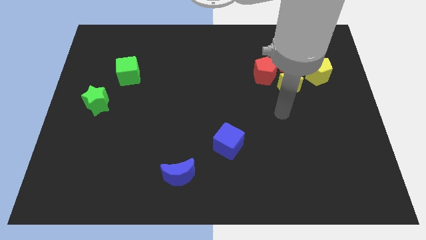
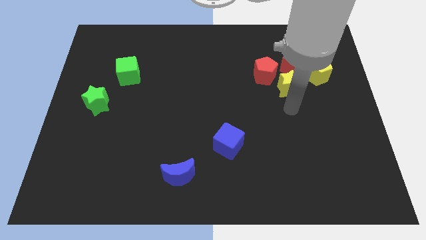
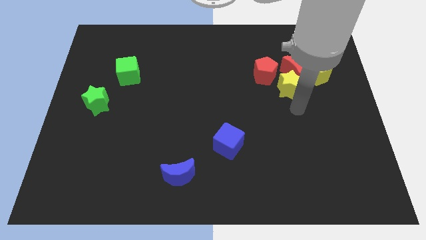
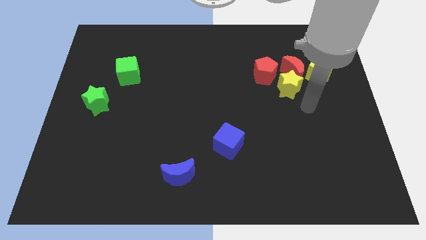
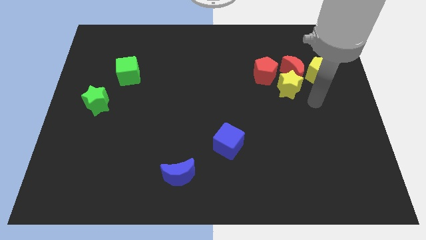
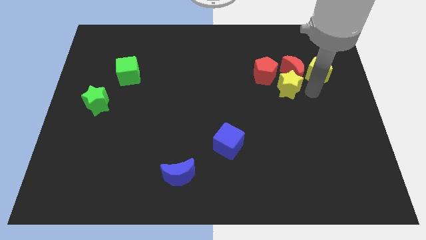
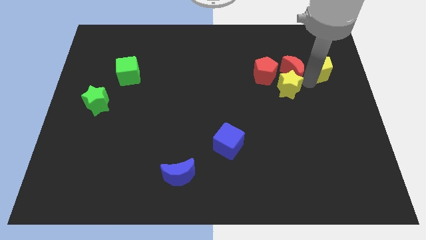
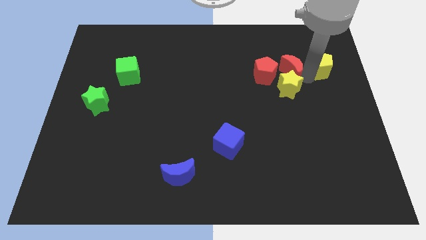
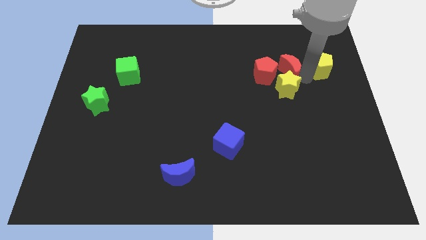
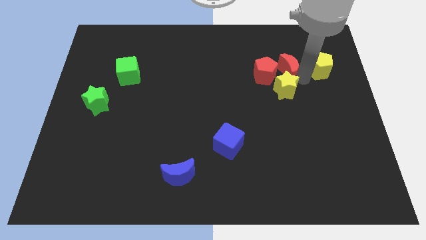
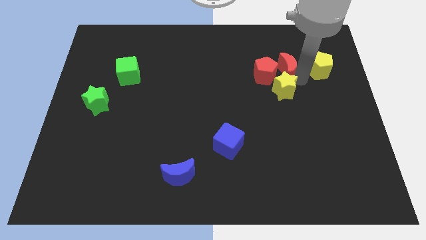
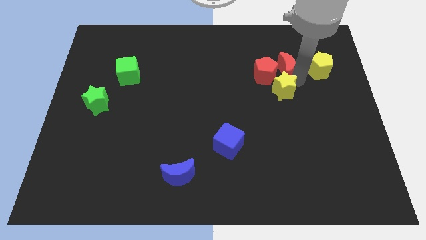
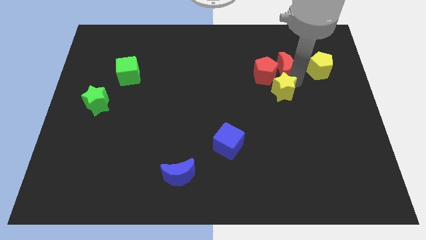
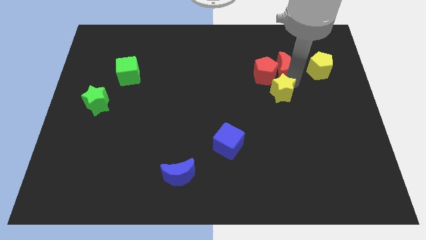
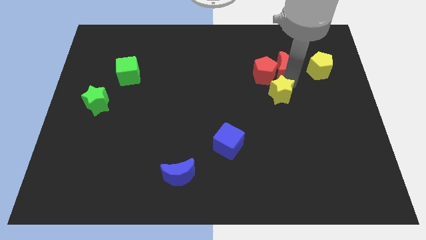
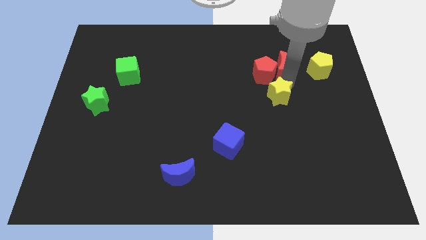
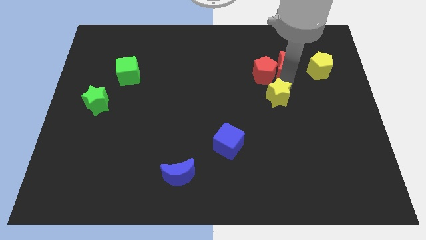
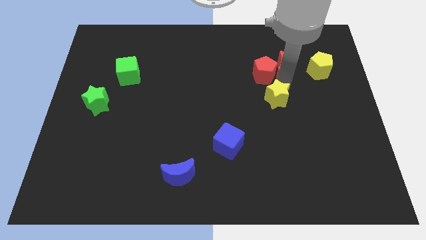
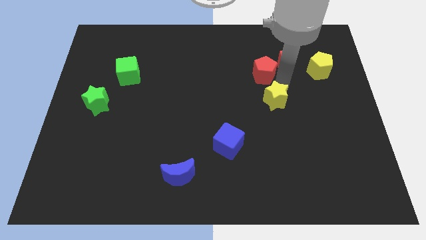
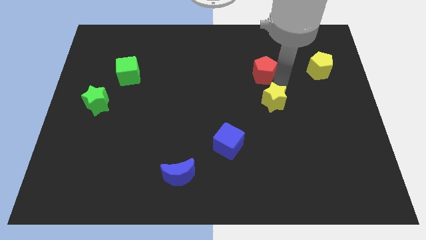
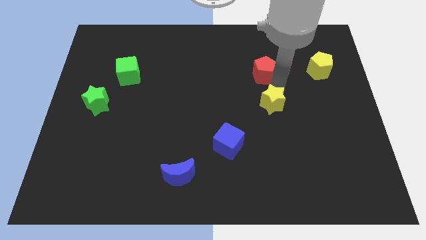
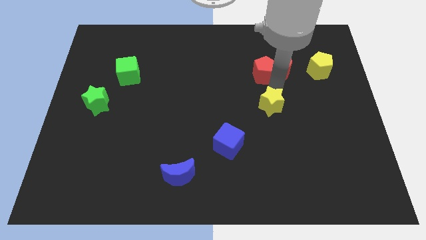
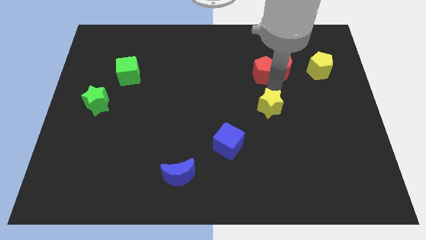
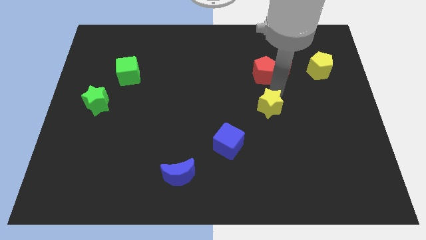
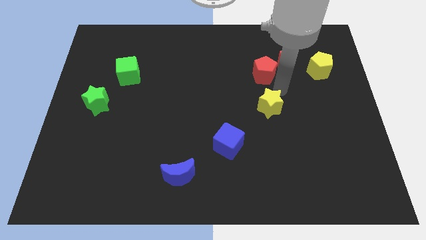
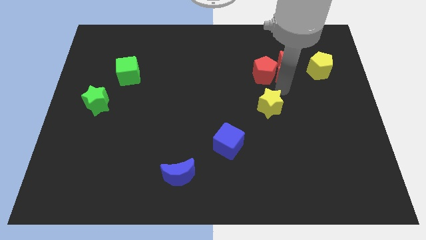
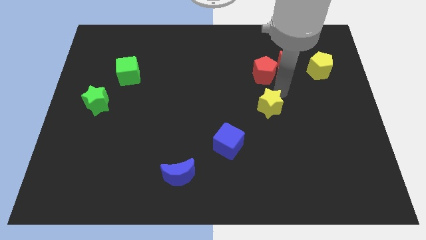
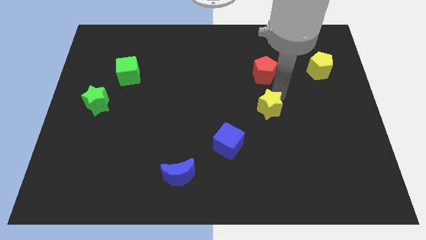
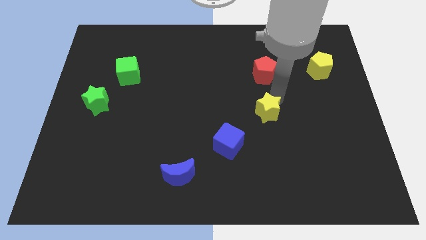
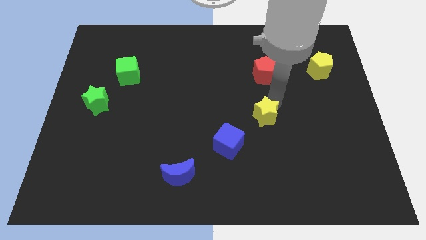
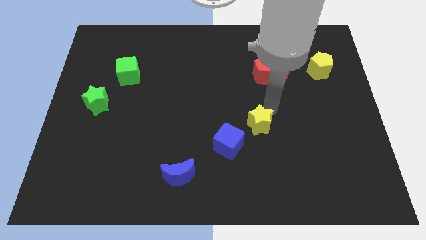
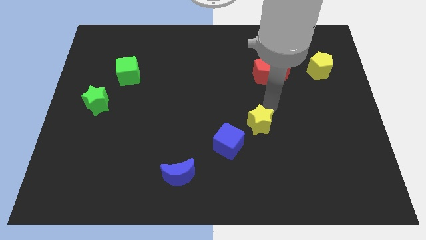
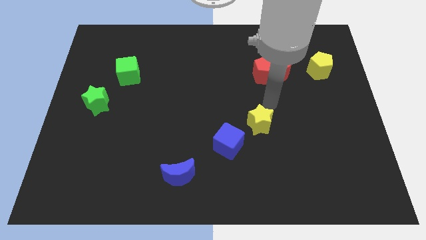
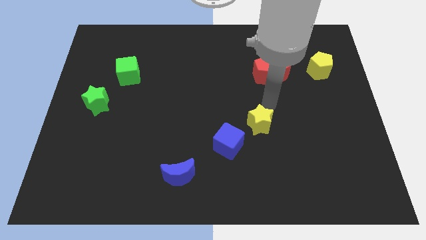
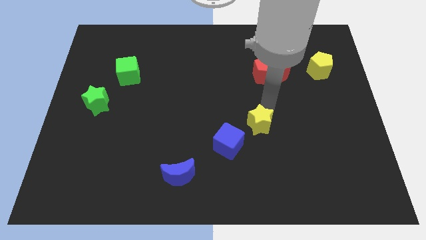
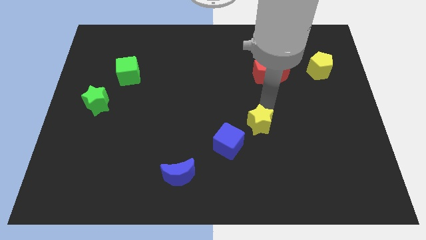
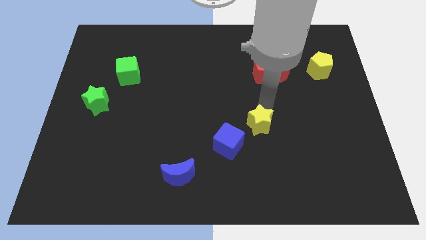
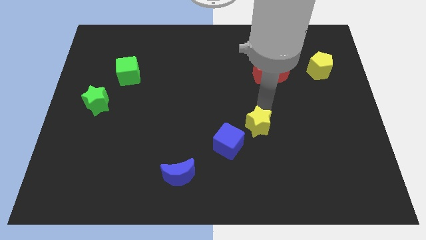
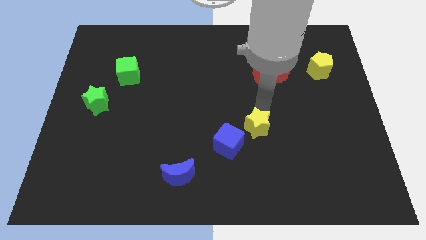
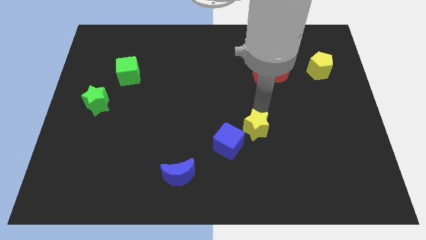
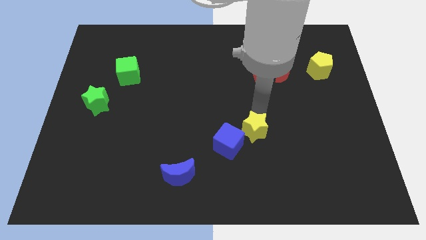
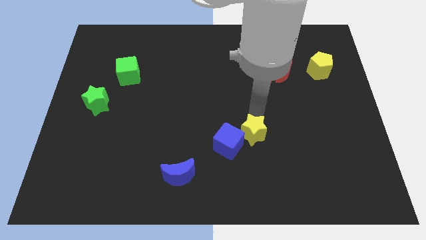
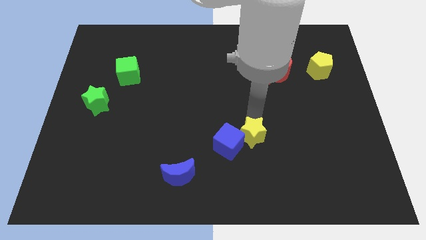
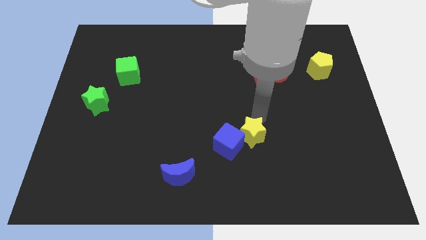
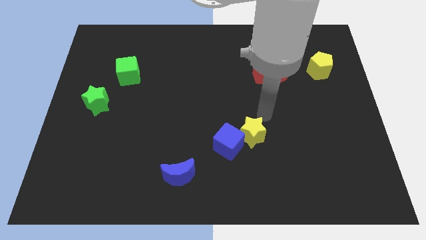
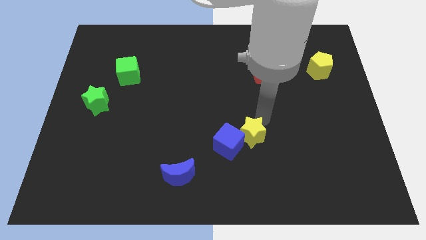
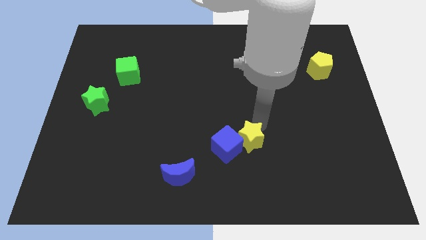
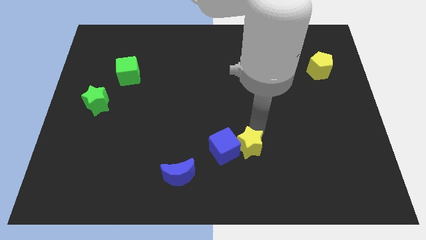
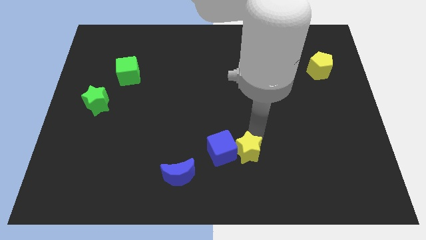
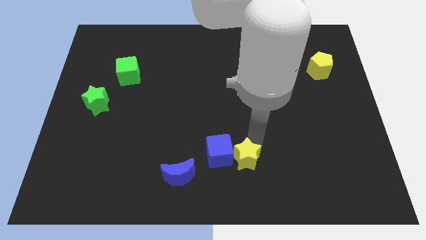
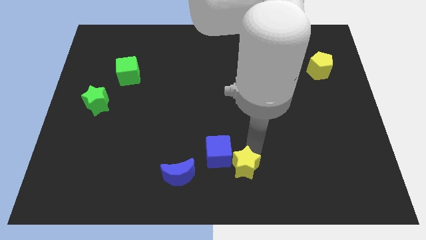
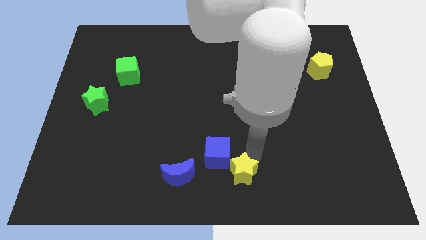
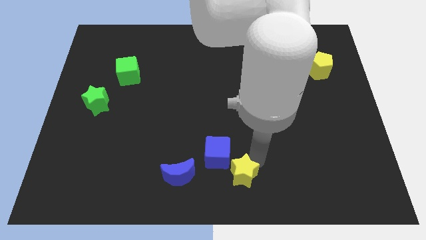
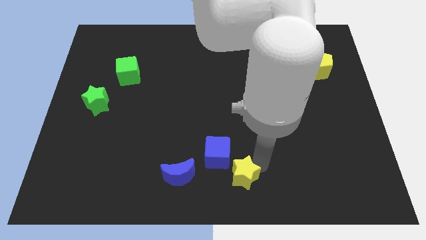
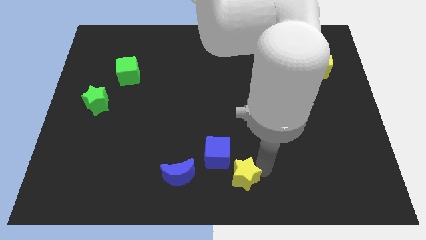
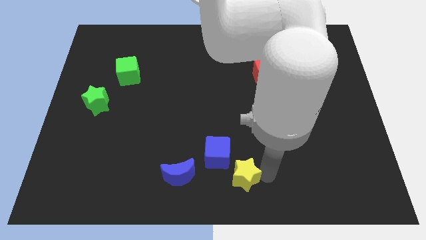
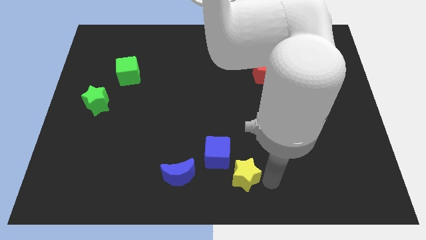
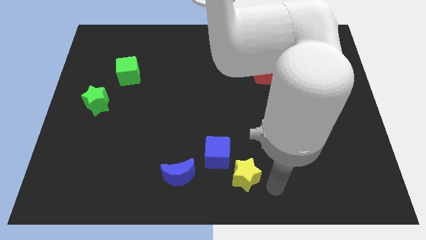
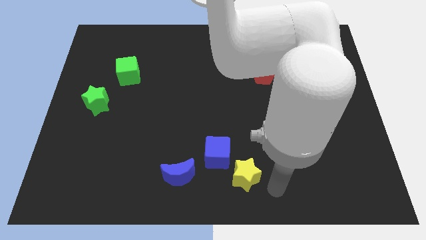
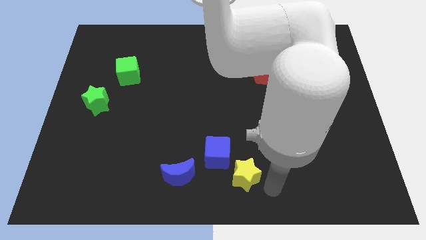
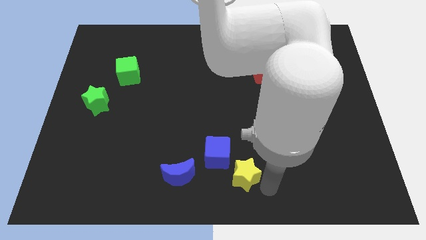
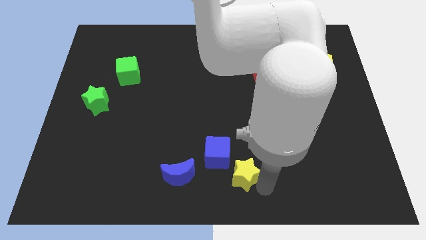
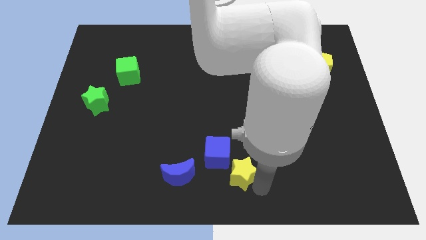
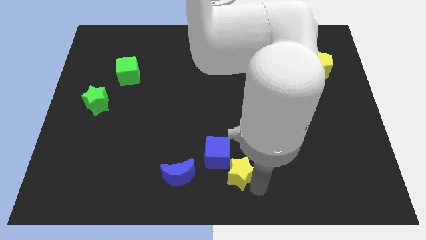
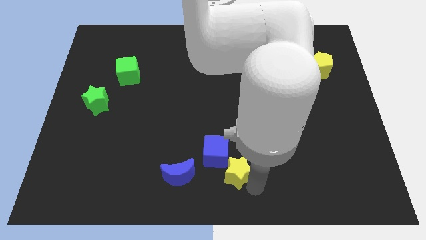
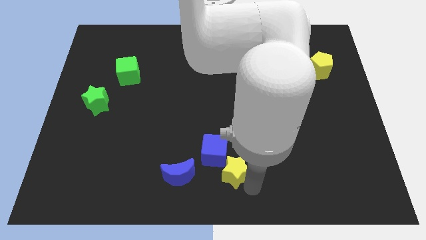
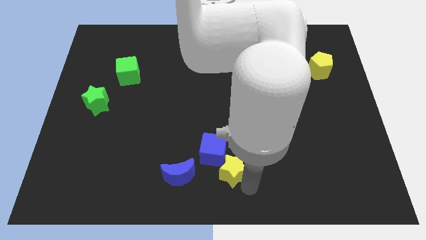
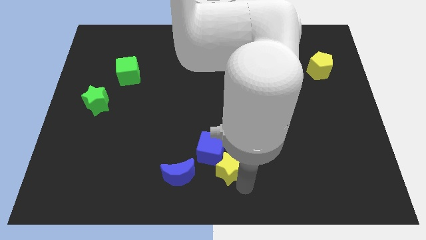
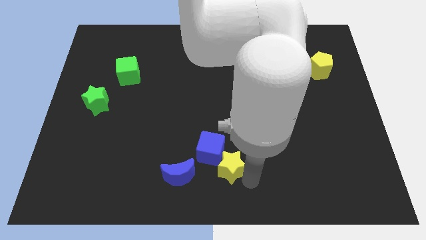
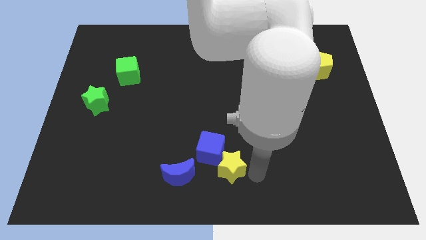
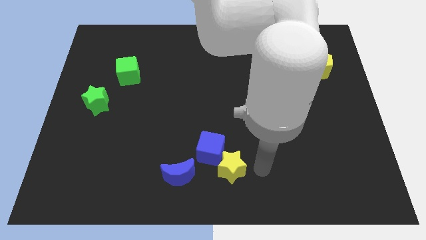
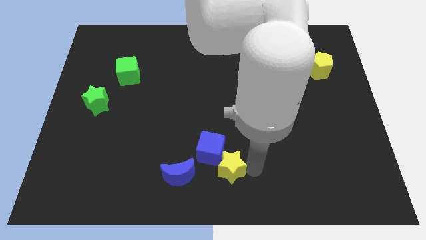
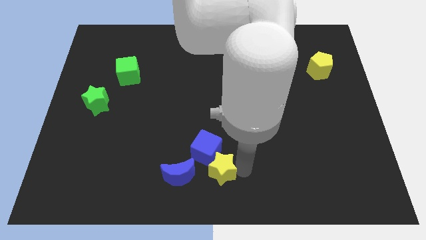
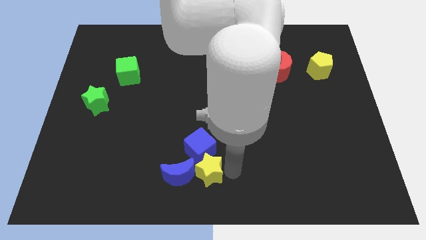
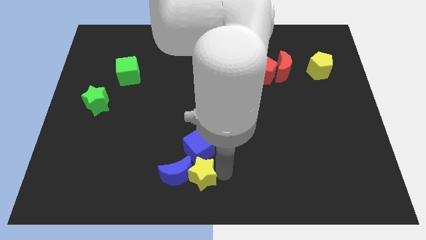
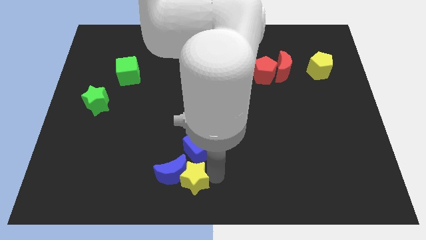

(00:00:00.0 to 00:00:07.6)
push the yellow star diagonally down and to the left of the blue cube

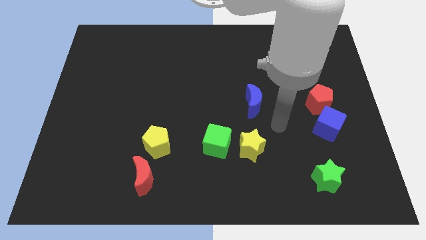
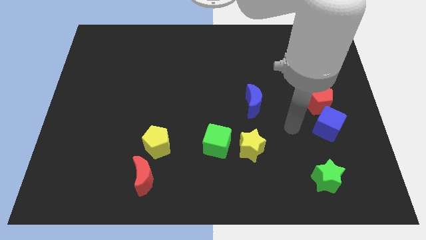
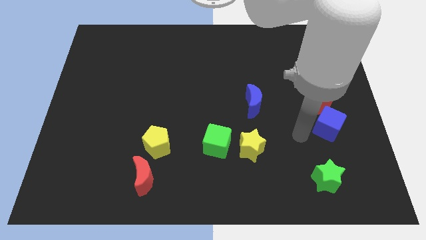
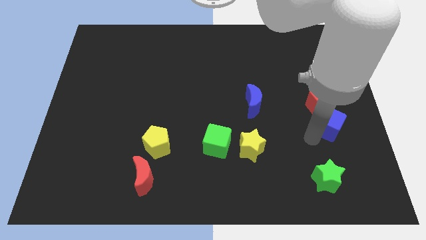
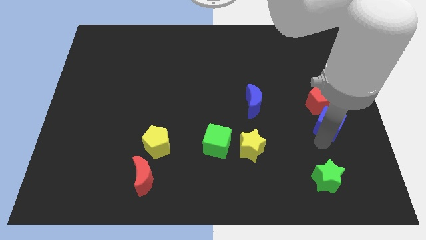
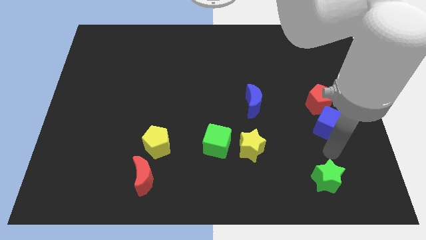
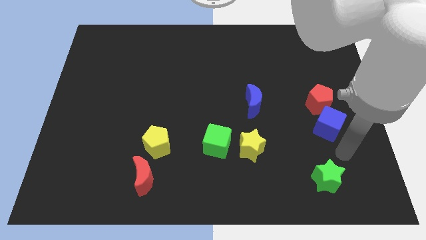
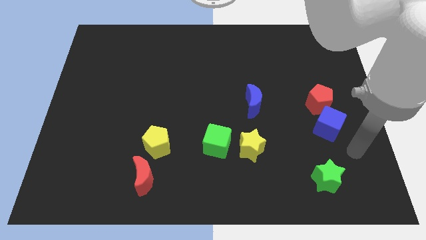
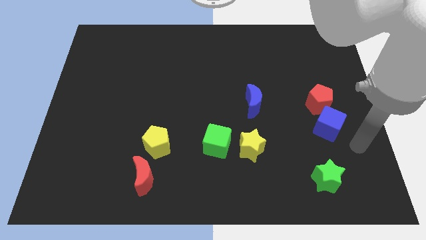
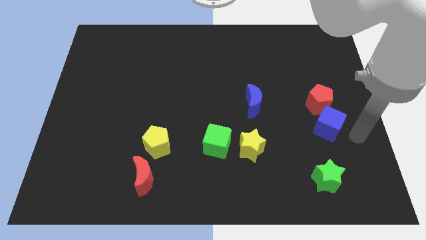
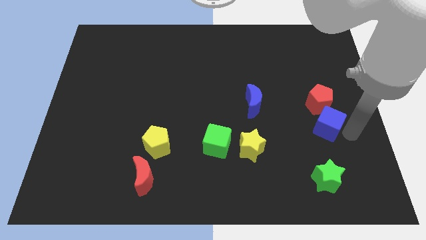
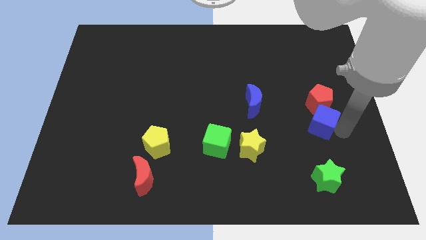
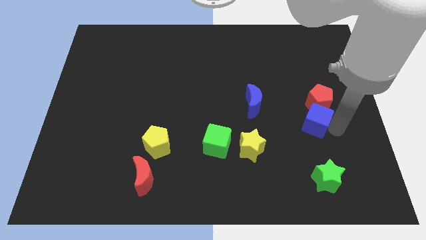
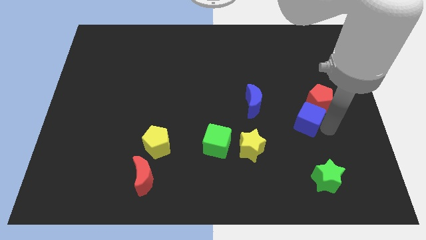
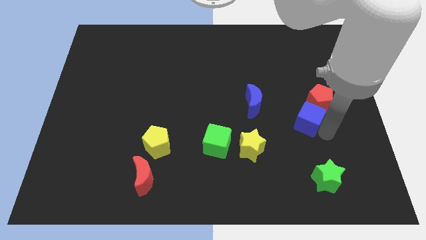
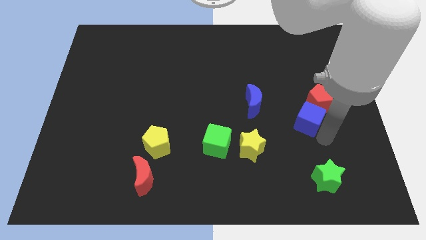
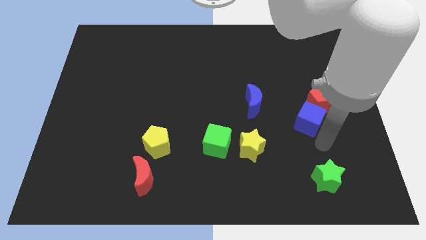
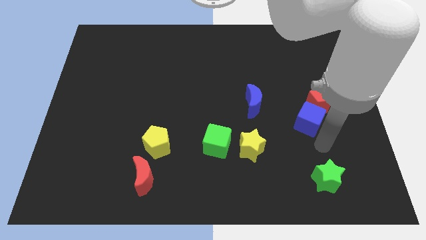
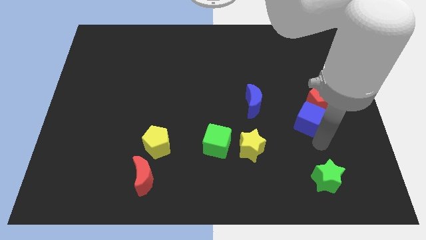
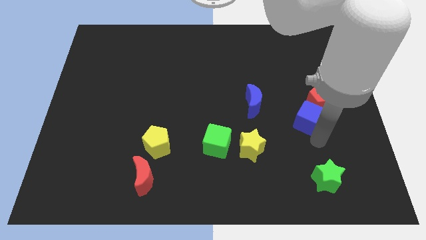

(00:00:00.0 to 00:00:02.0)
put the blue cube to the right side of the blue moon
